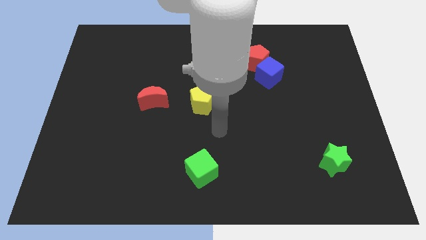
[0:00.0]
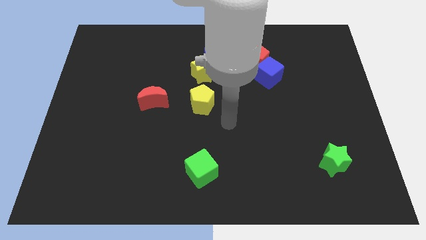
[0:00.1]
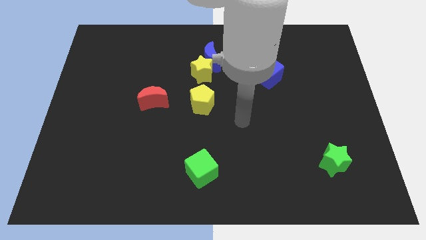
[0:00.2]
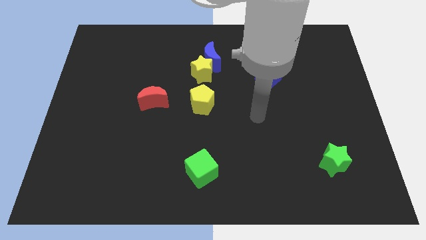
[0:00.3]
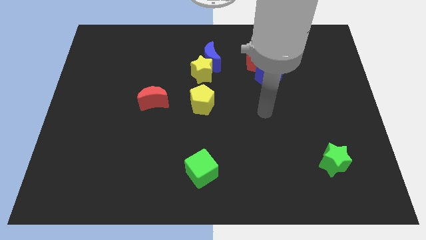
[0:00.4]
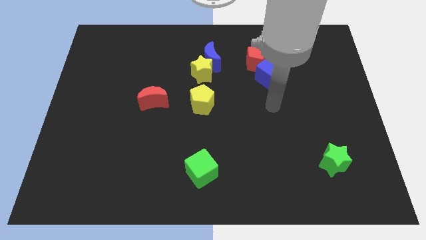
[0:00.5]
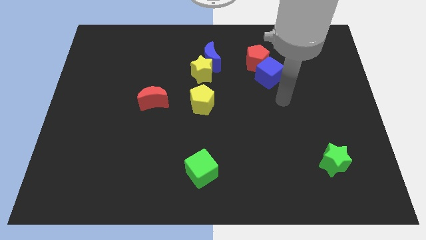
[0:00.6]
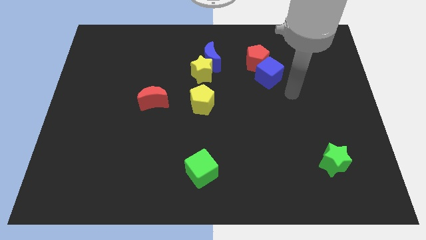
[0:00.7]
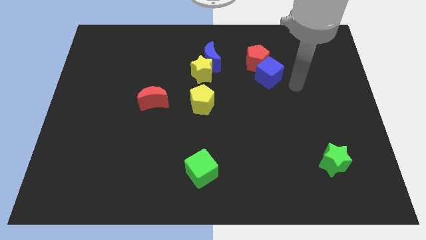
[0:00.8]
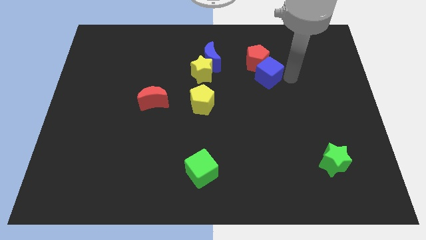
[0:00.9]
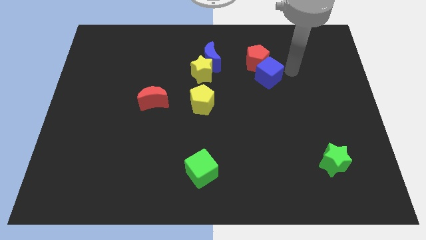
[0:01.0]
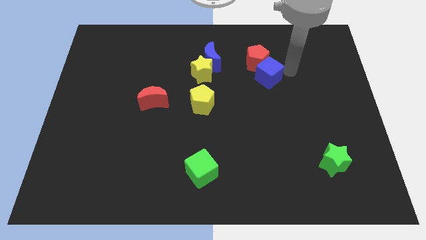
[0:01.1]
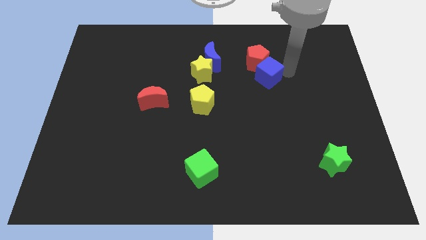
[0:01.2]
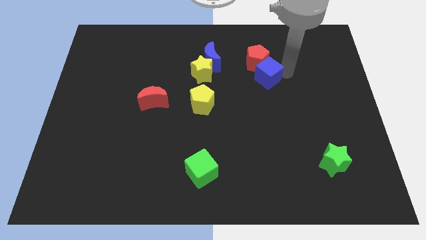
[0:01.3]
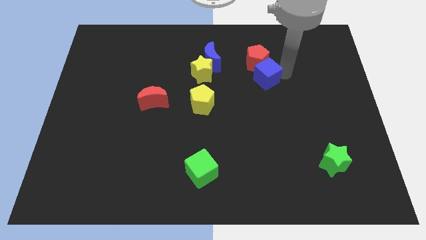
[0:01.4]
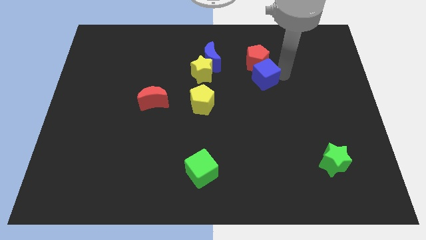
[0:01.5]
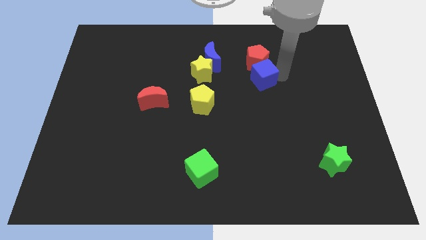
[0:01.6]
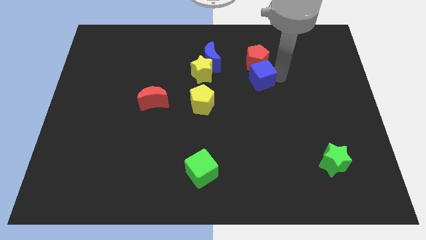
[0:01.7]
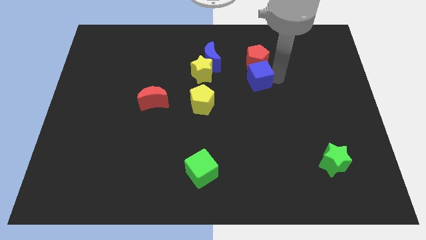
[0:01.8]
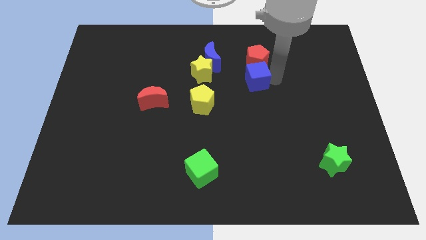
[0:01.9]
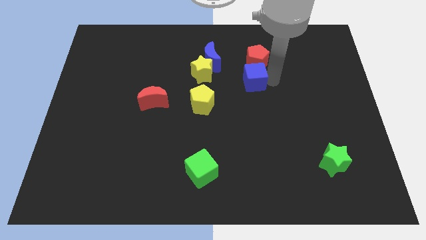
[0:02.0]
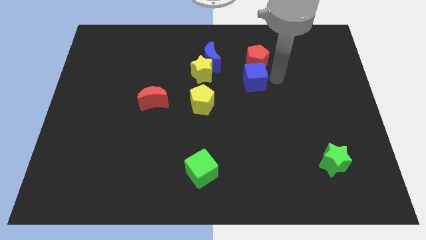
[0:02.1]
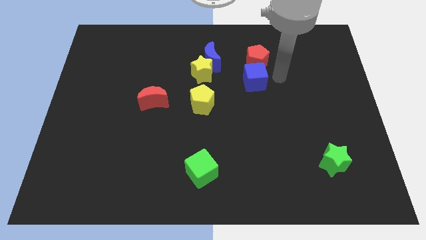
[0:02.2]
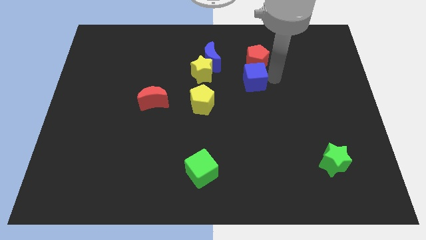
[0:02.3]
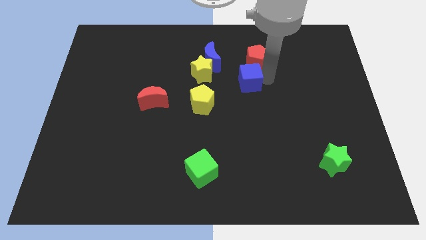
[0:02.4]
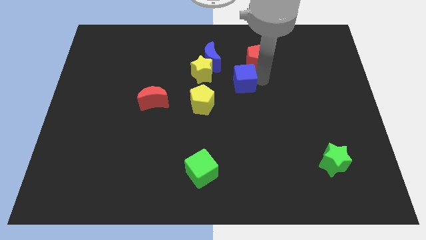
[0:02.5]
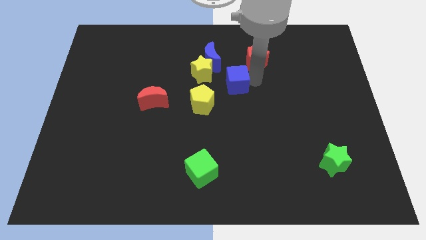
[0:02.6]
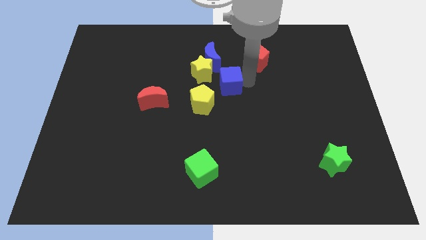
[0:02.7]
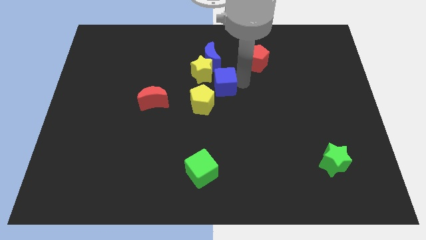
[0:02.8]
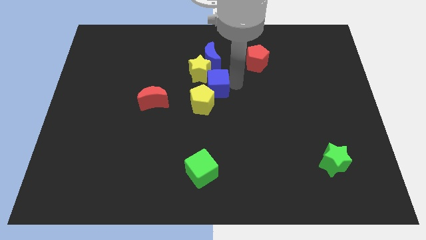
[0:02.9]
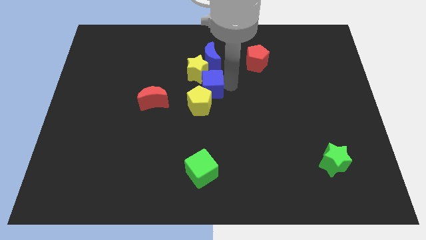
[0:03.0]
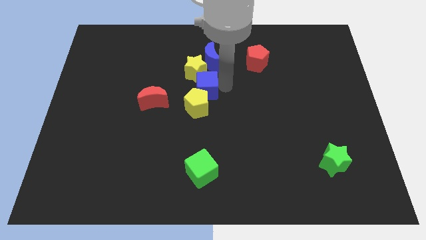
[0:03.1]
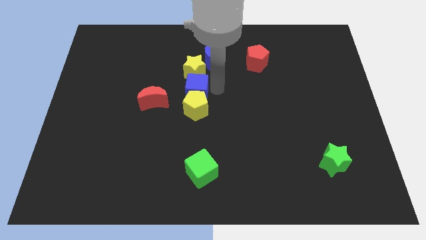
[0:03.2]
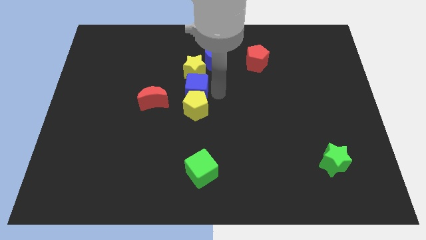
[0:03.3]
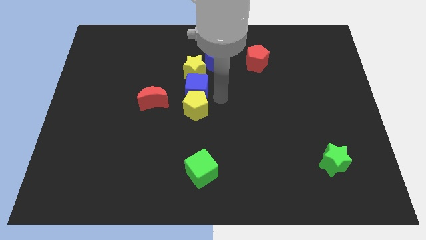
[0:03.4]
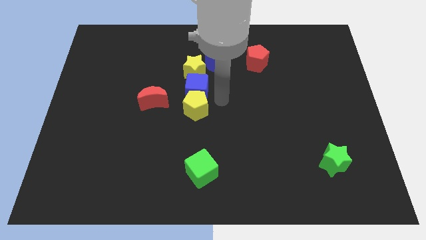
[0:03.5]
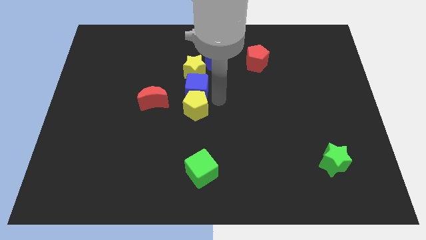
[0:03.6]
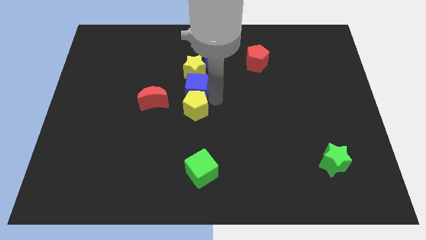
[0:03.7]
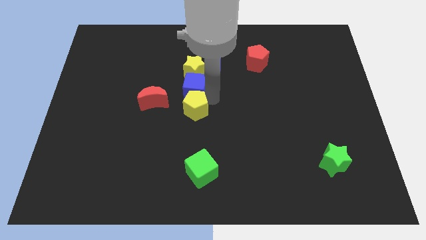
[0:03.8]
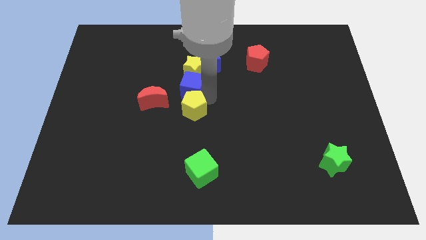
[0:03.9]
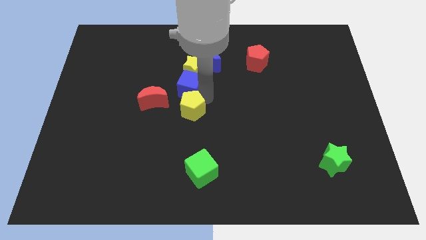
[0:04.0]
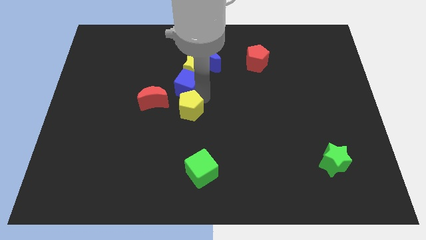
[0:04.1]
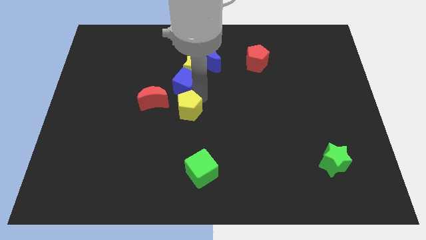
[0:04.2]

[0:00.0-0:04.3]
move the blue cube to the left

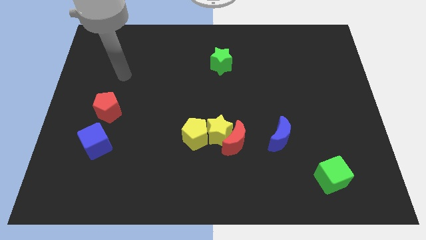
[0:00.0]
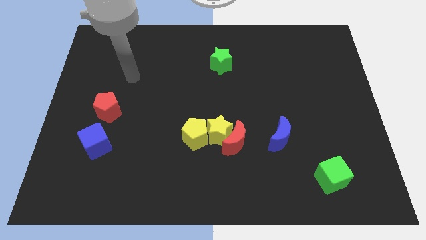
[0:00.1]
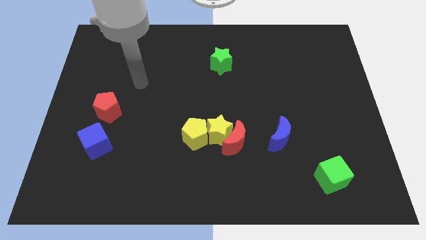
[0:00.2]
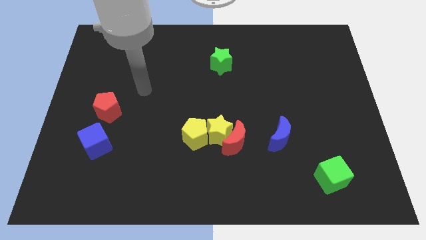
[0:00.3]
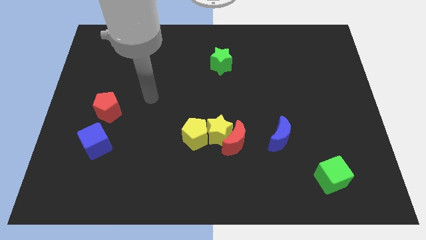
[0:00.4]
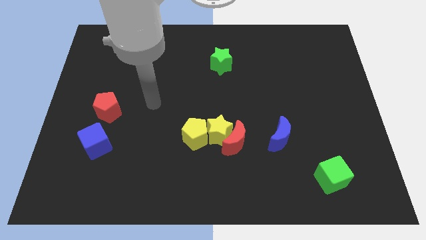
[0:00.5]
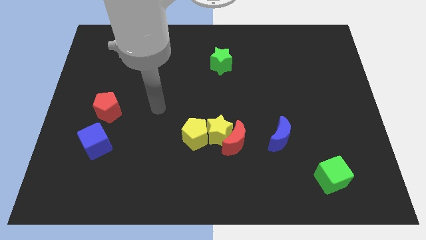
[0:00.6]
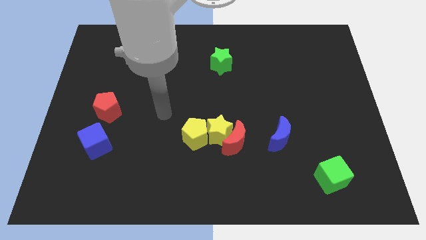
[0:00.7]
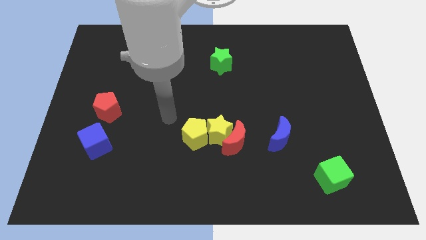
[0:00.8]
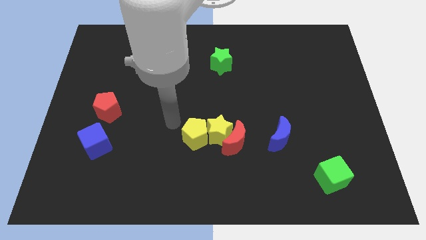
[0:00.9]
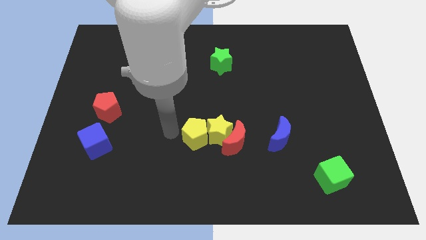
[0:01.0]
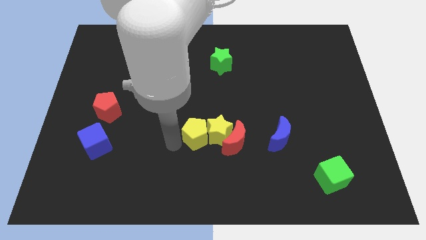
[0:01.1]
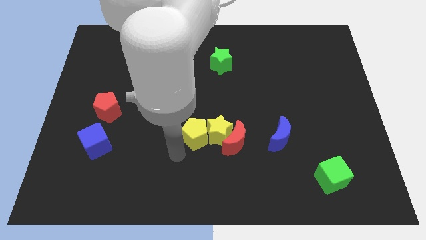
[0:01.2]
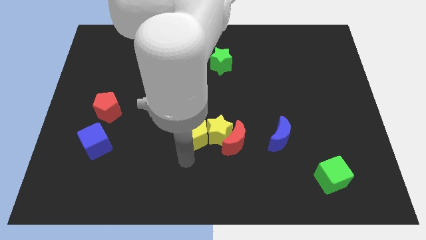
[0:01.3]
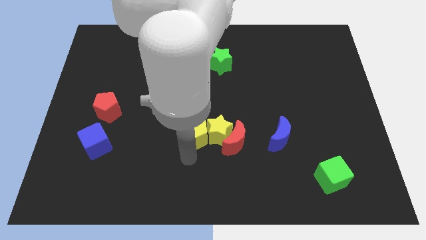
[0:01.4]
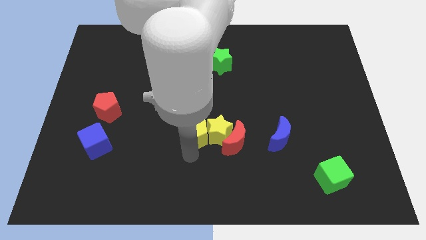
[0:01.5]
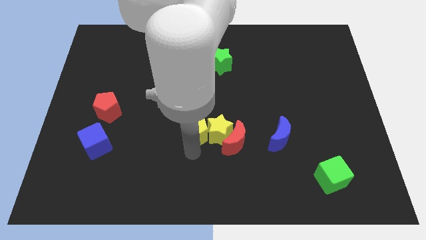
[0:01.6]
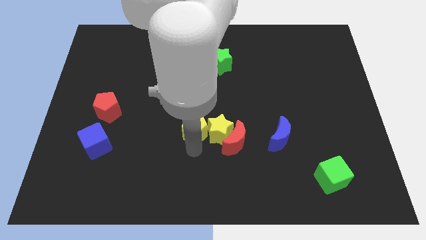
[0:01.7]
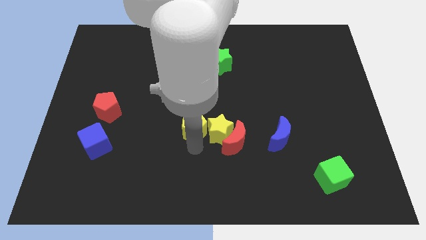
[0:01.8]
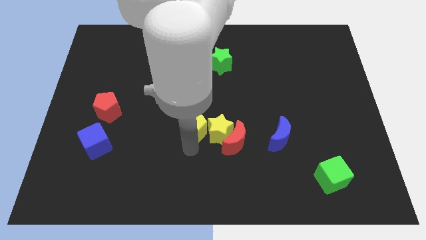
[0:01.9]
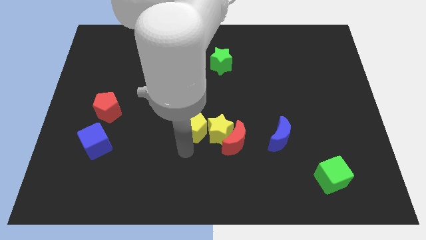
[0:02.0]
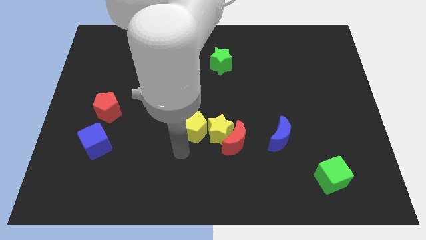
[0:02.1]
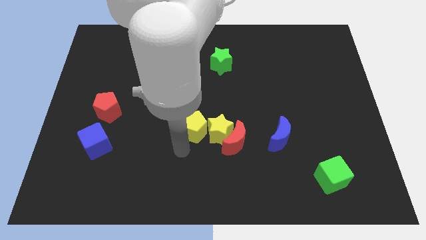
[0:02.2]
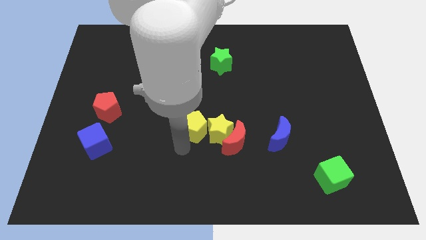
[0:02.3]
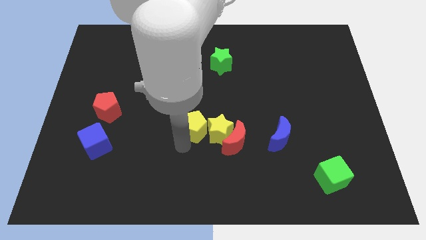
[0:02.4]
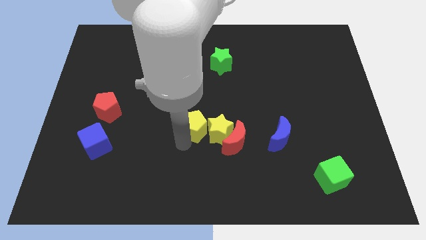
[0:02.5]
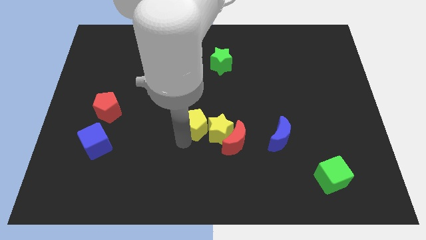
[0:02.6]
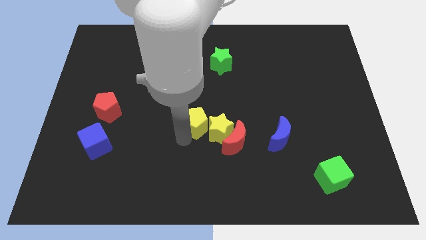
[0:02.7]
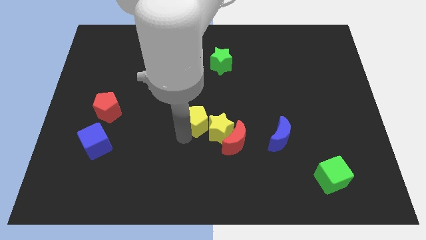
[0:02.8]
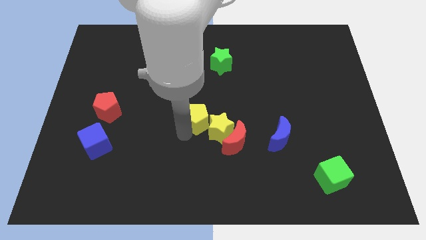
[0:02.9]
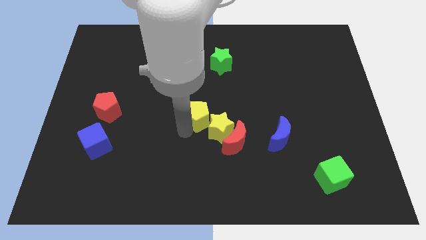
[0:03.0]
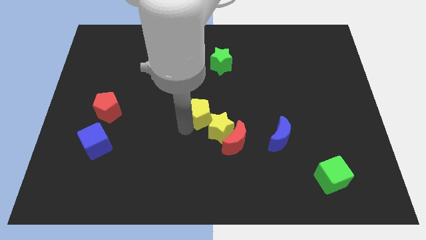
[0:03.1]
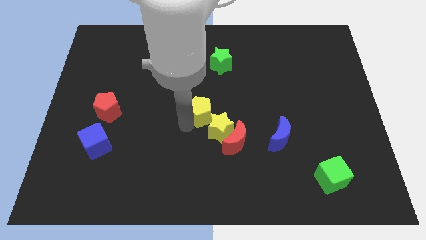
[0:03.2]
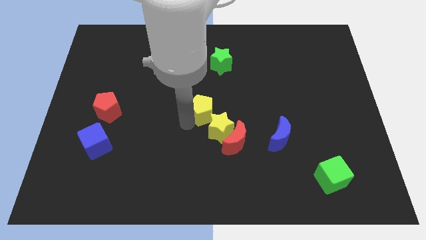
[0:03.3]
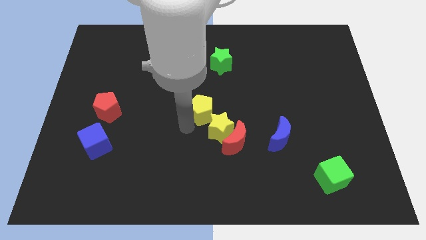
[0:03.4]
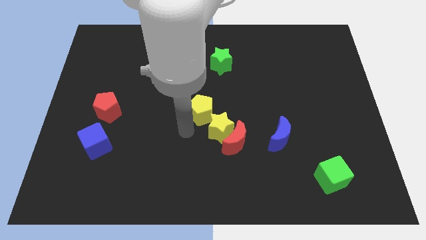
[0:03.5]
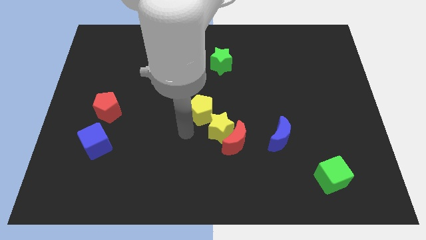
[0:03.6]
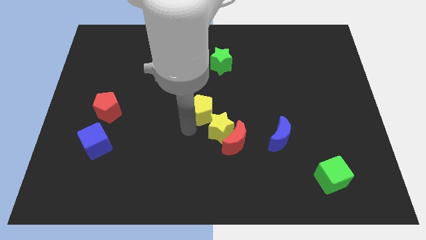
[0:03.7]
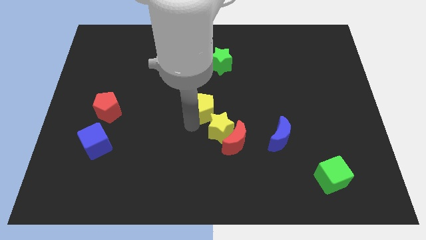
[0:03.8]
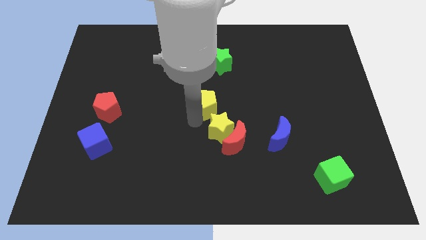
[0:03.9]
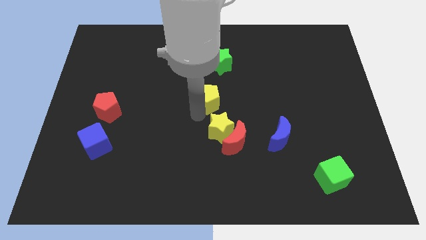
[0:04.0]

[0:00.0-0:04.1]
slide the yellow pentagon a little bit upwards and right
